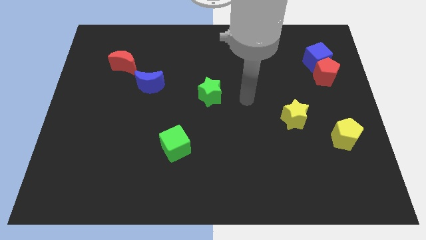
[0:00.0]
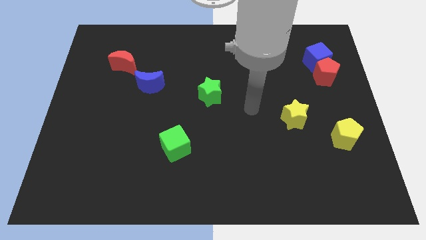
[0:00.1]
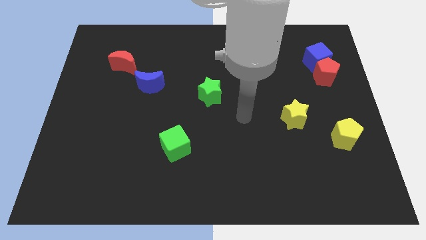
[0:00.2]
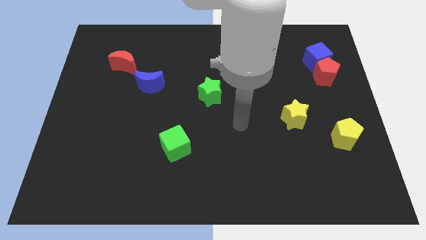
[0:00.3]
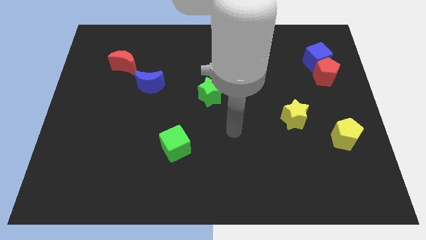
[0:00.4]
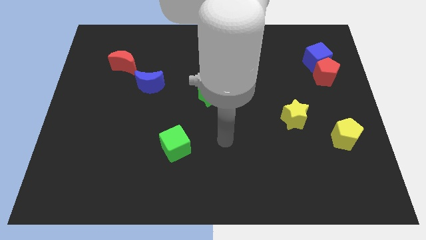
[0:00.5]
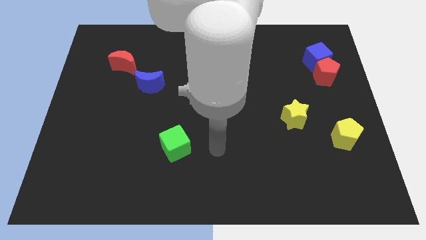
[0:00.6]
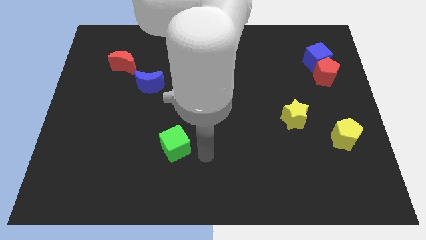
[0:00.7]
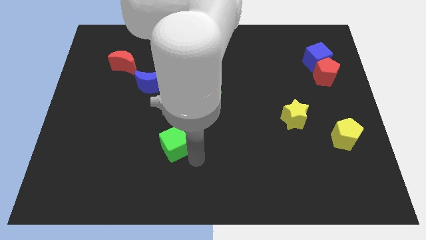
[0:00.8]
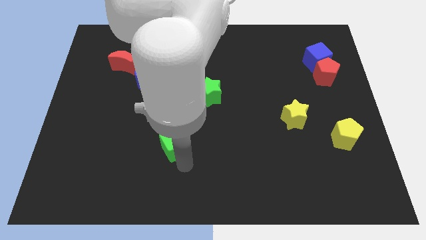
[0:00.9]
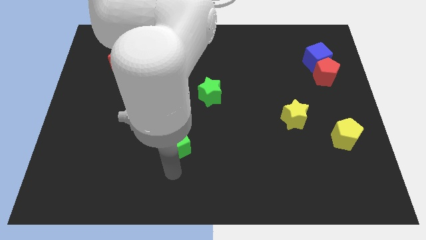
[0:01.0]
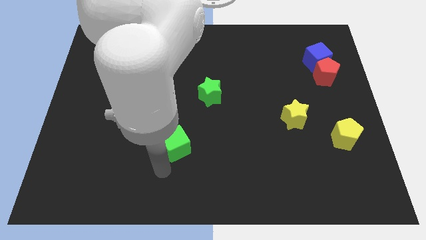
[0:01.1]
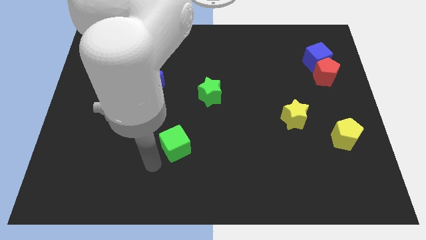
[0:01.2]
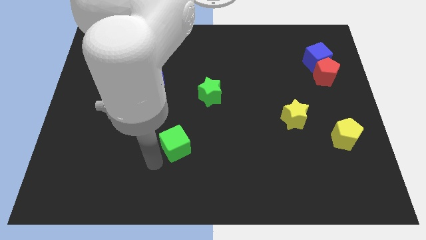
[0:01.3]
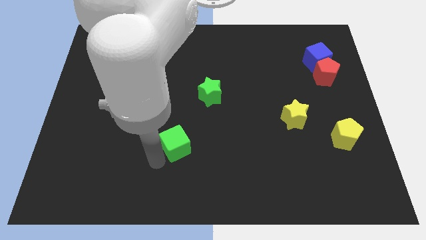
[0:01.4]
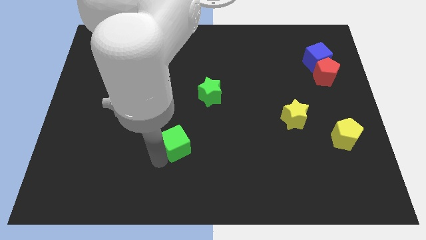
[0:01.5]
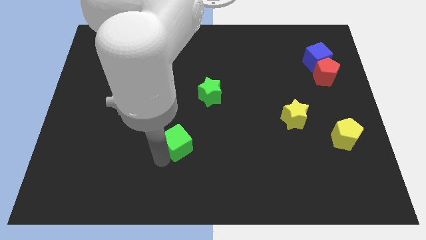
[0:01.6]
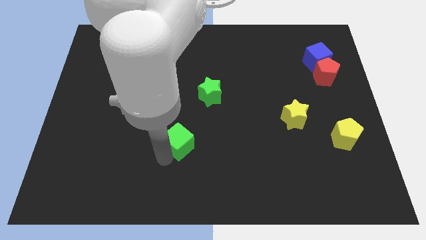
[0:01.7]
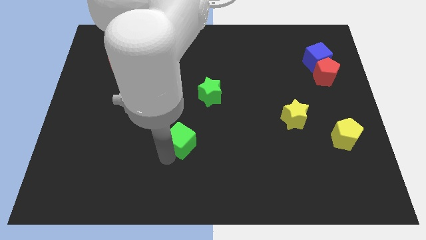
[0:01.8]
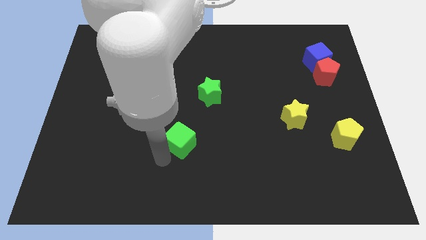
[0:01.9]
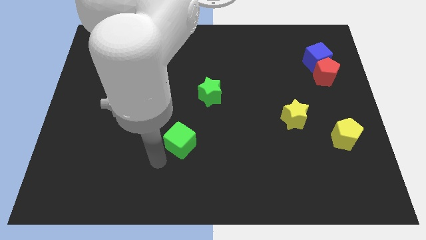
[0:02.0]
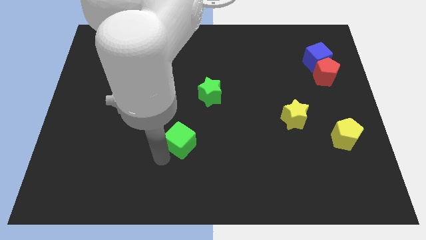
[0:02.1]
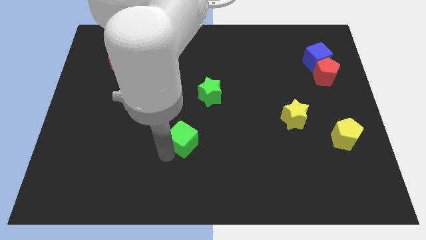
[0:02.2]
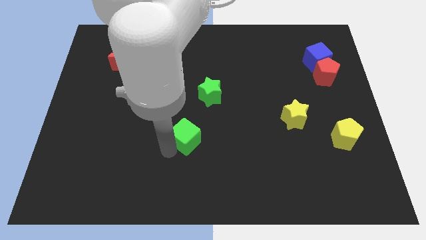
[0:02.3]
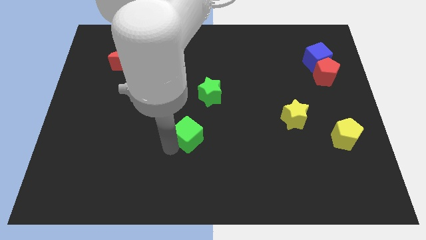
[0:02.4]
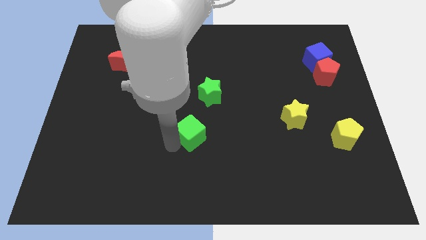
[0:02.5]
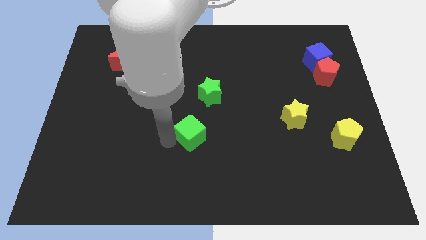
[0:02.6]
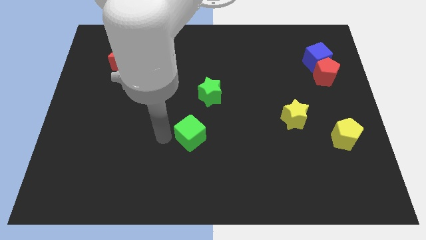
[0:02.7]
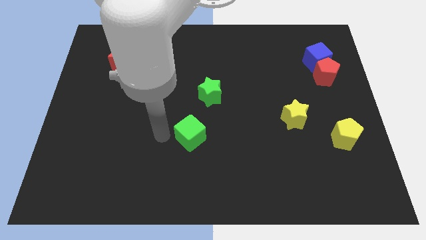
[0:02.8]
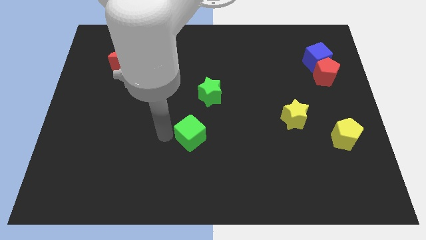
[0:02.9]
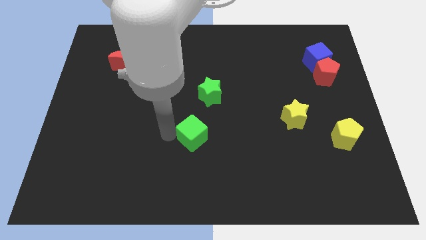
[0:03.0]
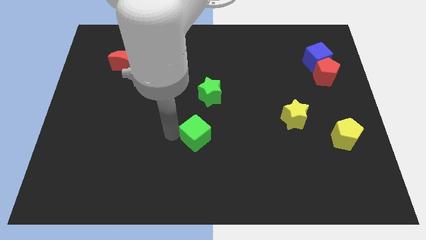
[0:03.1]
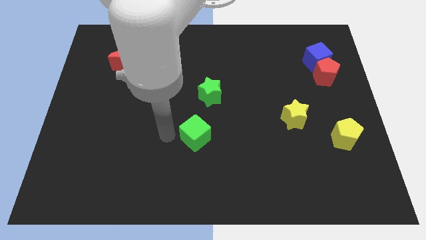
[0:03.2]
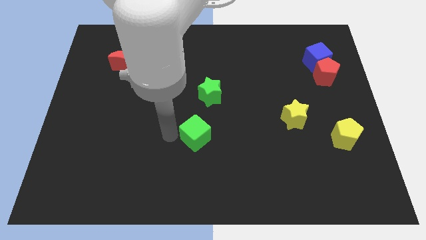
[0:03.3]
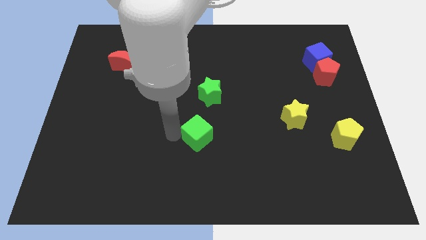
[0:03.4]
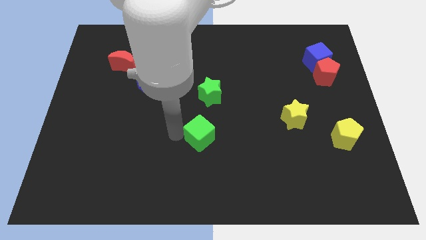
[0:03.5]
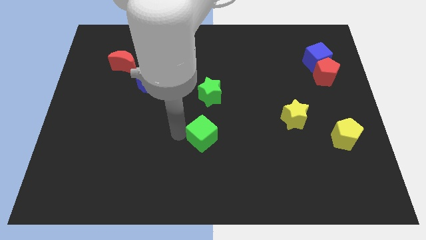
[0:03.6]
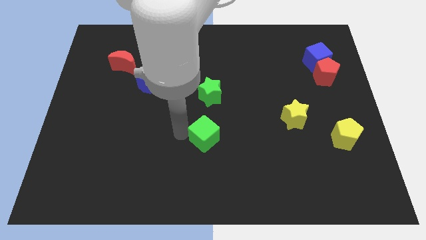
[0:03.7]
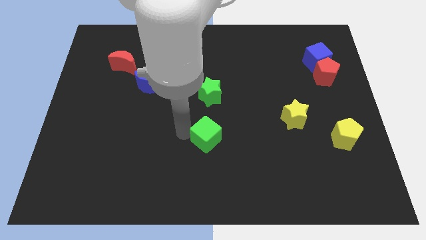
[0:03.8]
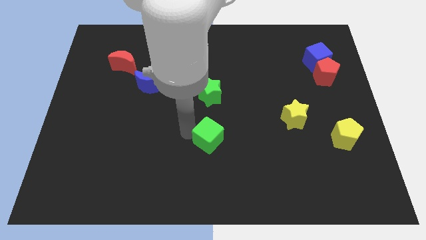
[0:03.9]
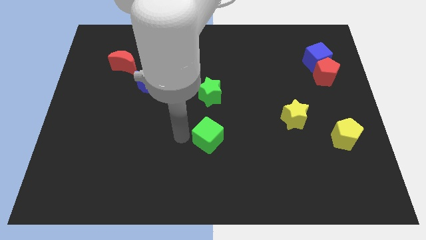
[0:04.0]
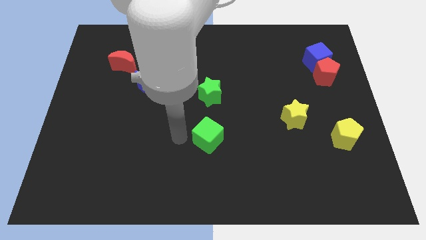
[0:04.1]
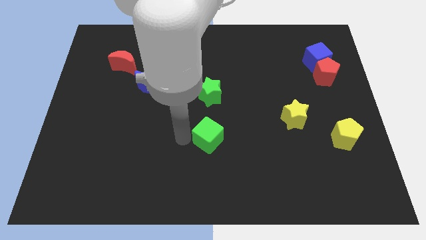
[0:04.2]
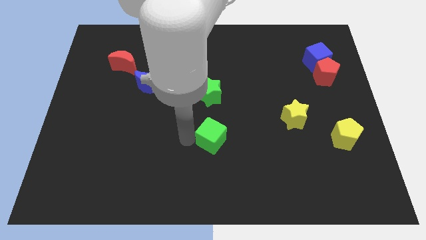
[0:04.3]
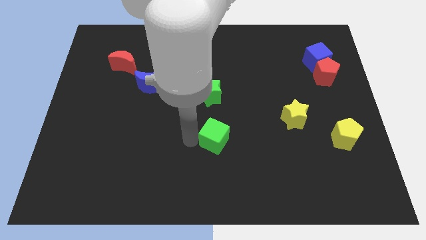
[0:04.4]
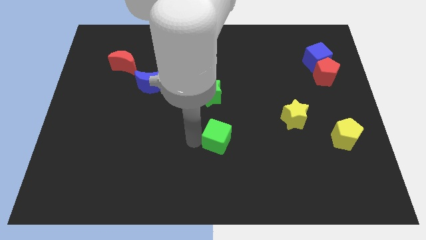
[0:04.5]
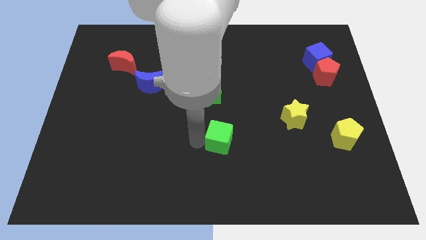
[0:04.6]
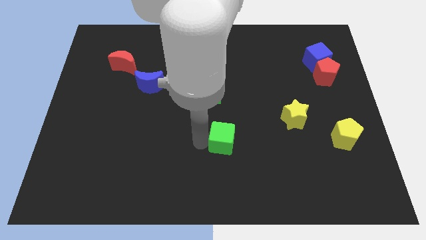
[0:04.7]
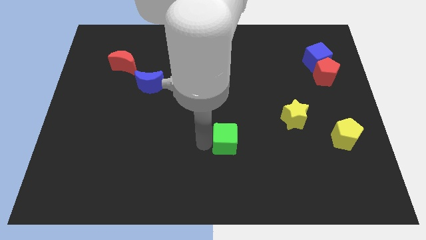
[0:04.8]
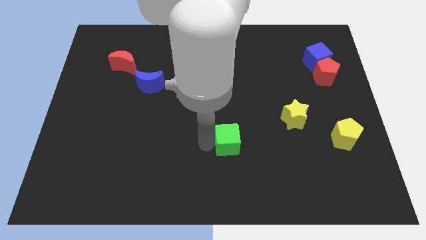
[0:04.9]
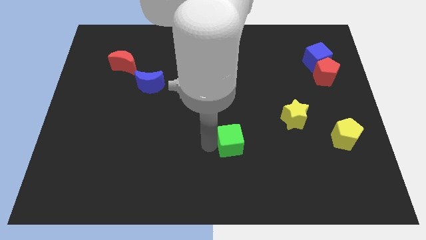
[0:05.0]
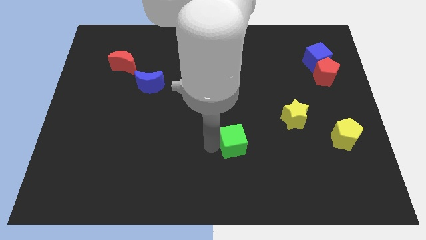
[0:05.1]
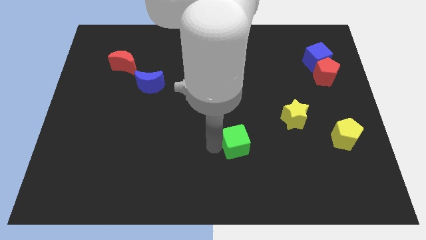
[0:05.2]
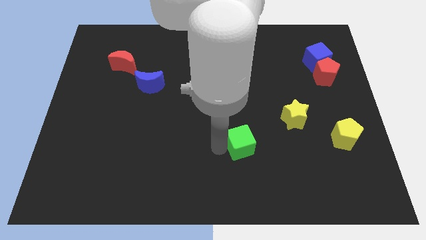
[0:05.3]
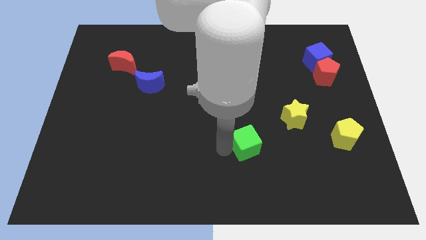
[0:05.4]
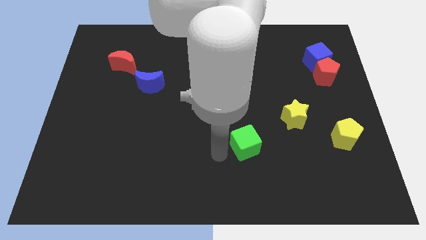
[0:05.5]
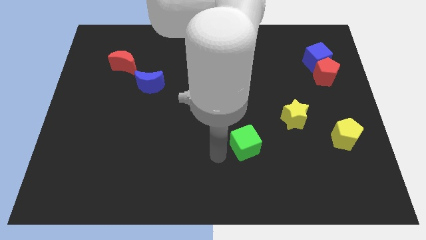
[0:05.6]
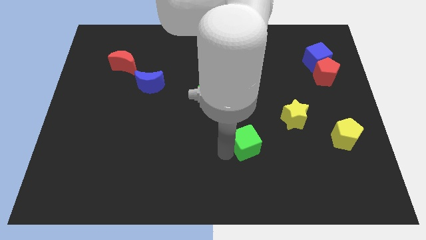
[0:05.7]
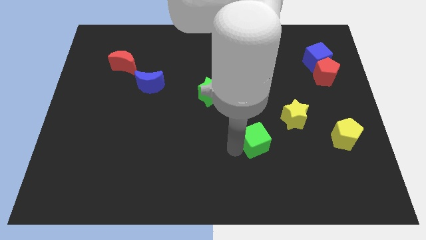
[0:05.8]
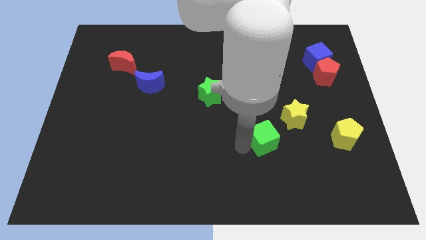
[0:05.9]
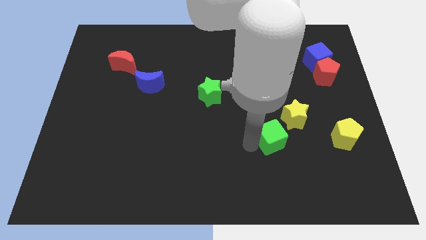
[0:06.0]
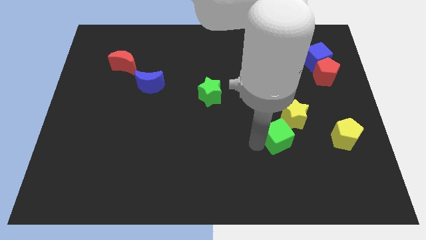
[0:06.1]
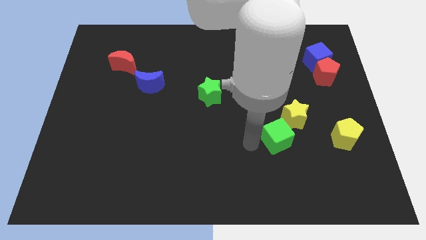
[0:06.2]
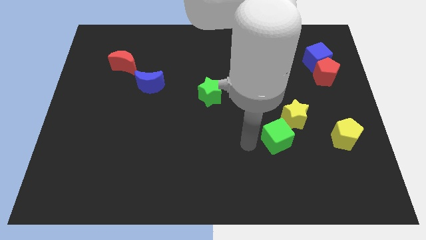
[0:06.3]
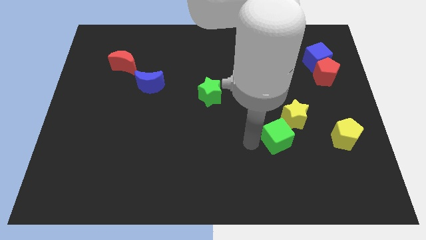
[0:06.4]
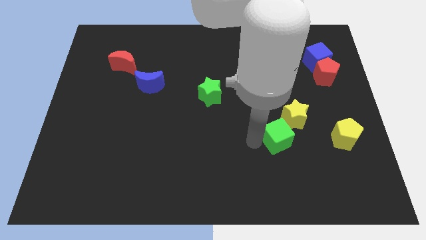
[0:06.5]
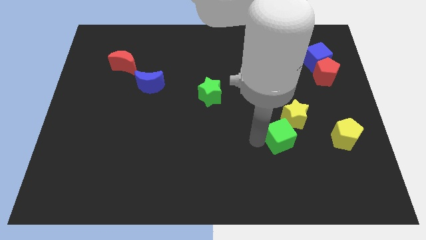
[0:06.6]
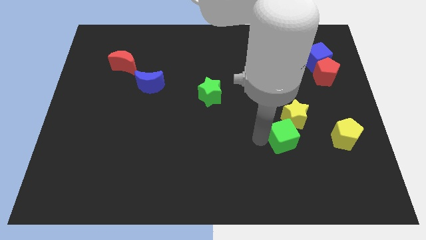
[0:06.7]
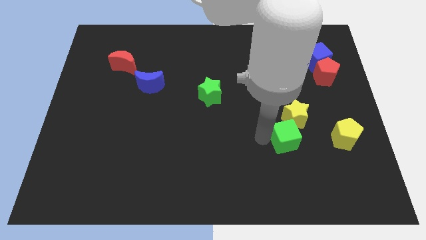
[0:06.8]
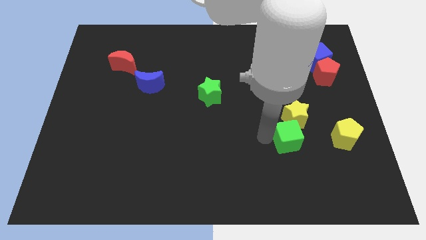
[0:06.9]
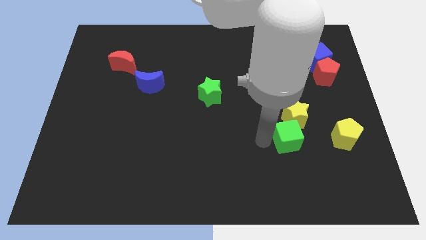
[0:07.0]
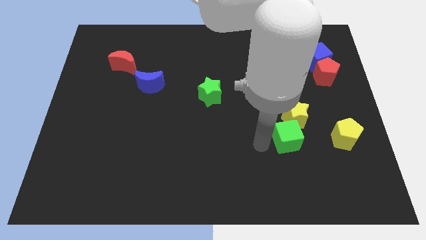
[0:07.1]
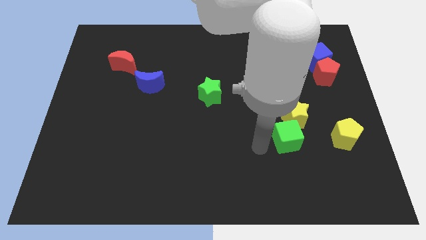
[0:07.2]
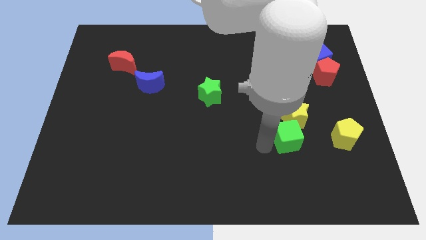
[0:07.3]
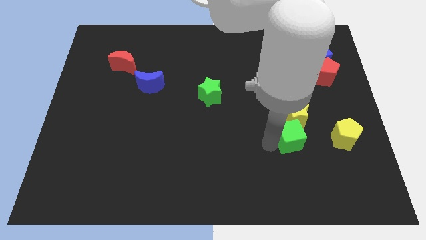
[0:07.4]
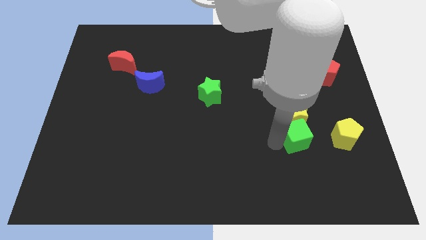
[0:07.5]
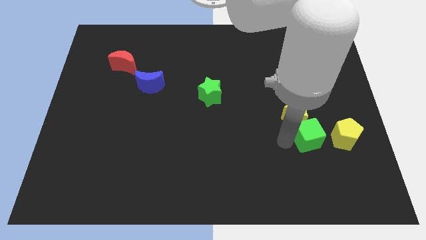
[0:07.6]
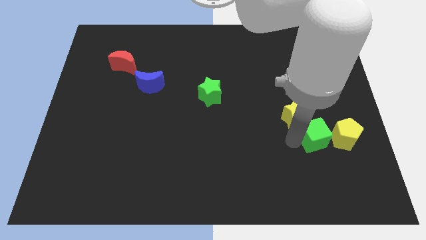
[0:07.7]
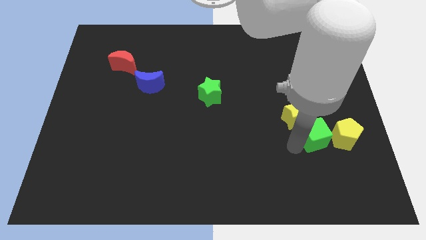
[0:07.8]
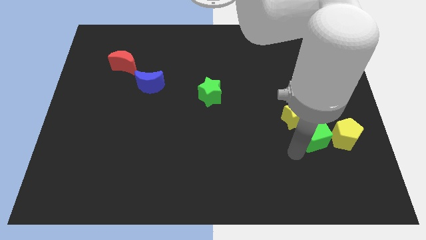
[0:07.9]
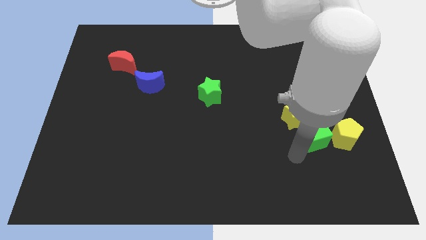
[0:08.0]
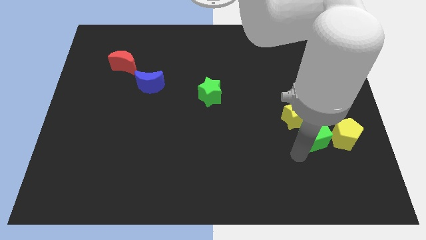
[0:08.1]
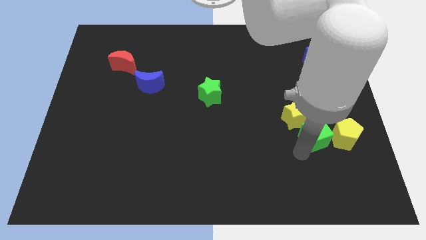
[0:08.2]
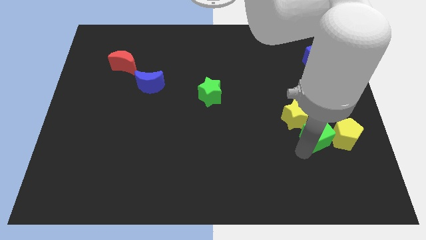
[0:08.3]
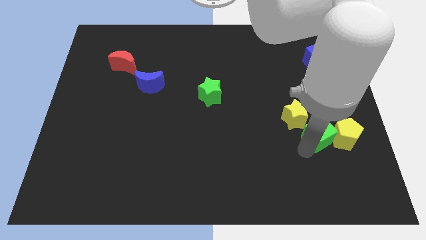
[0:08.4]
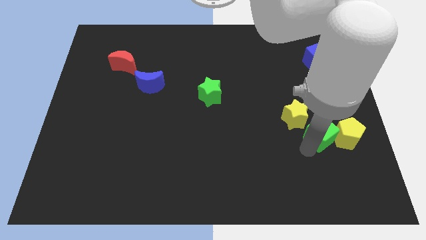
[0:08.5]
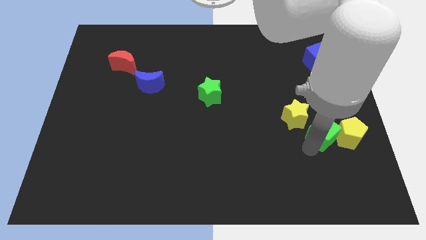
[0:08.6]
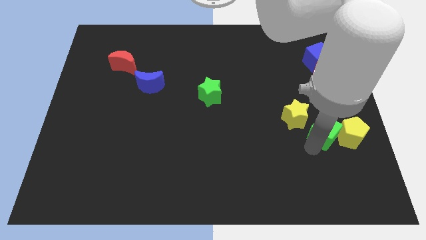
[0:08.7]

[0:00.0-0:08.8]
move the green cube just right of the yellow star
